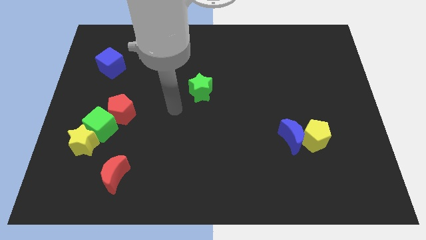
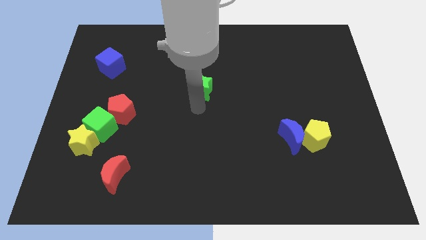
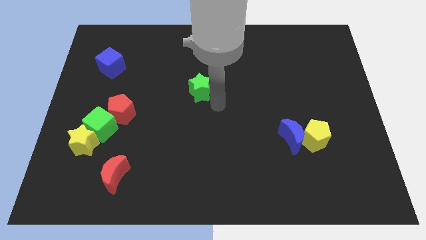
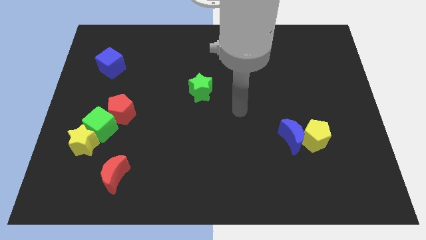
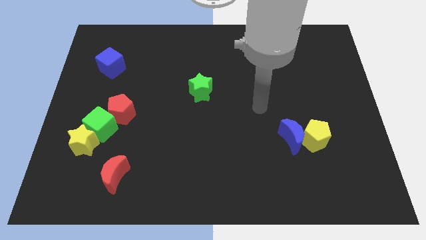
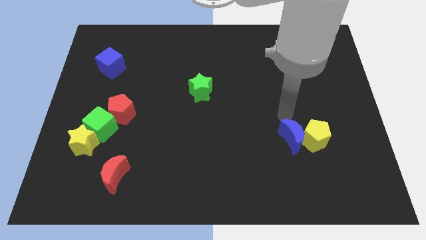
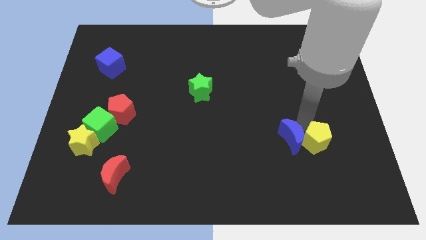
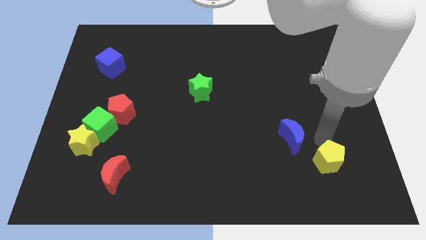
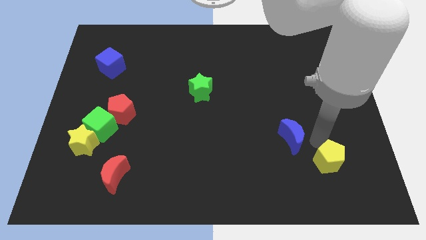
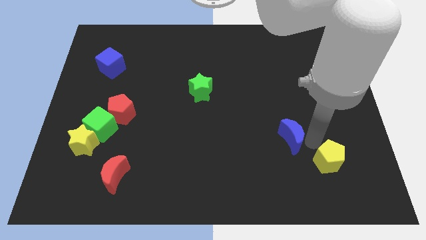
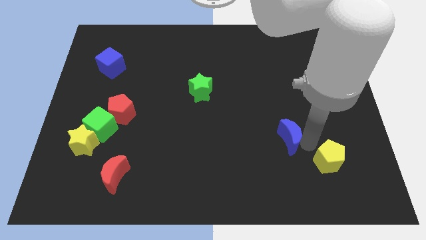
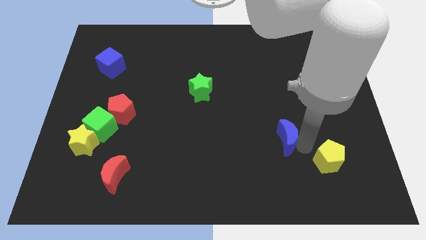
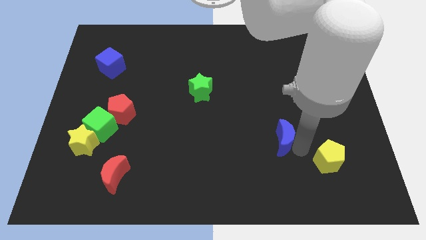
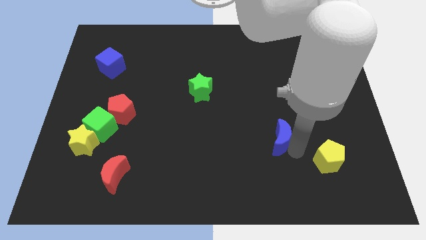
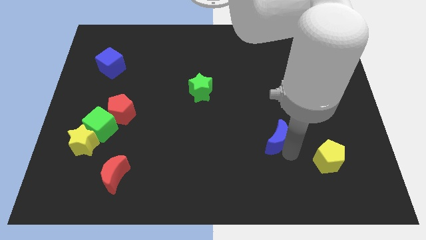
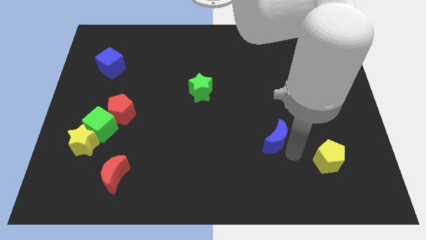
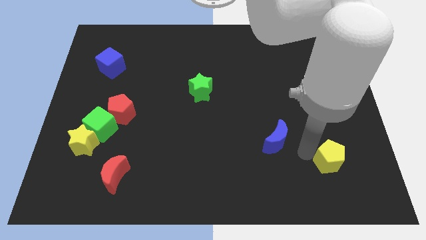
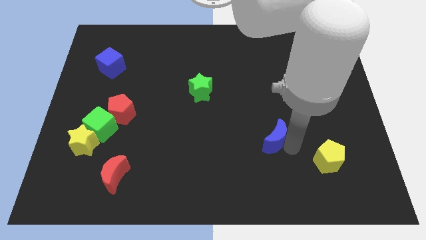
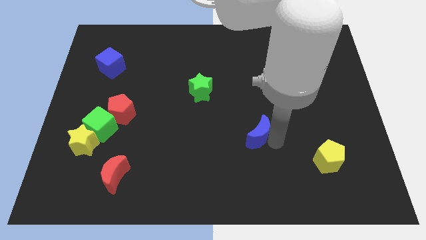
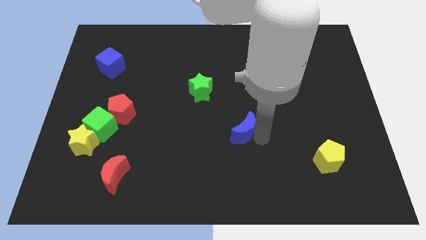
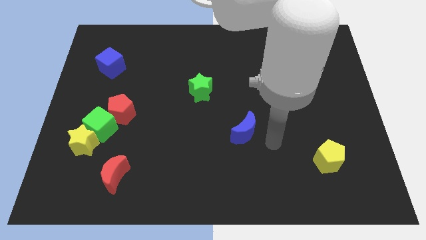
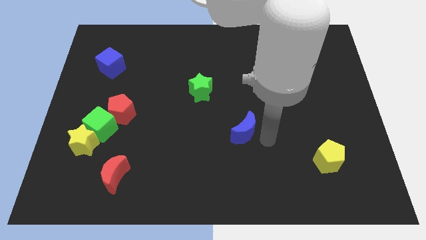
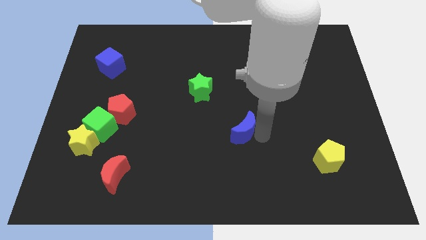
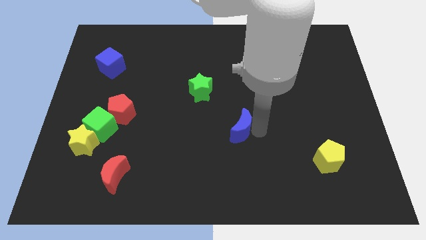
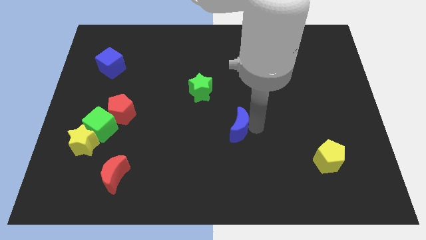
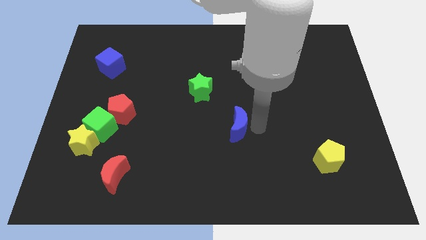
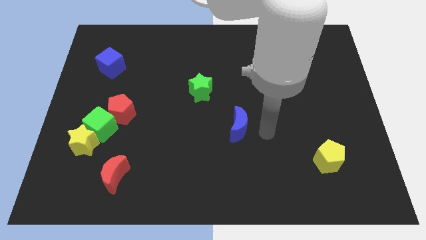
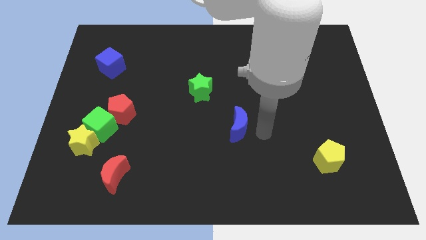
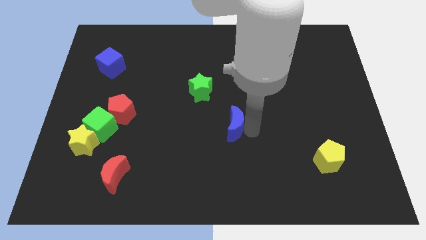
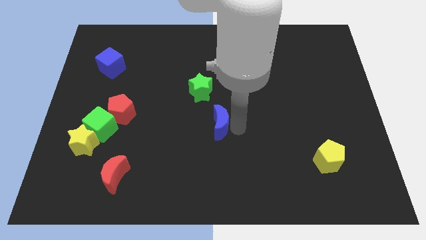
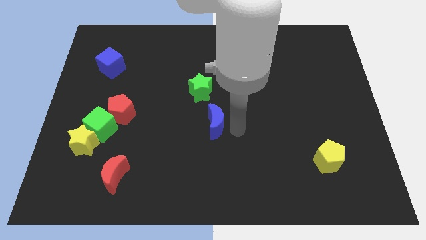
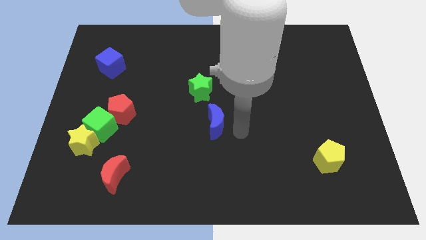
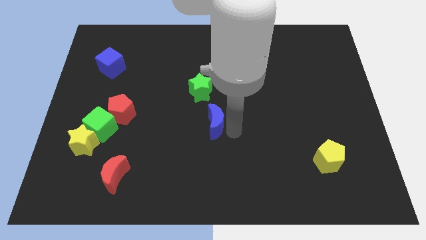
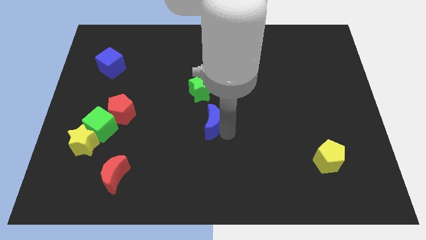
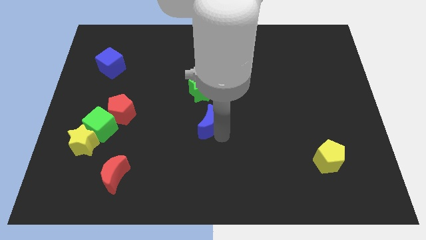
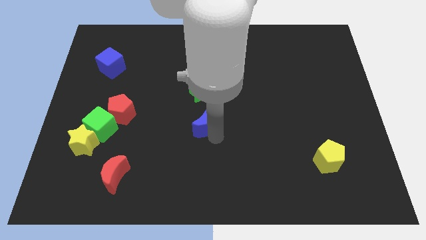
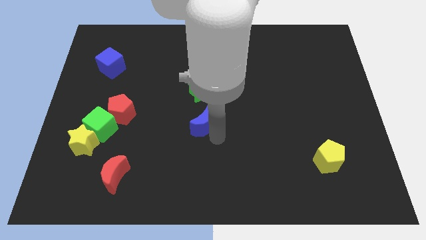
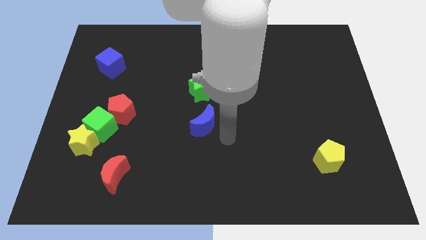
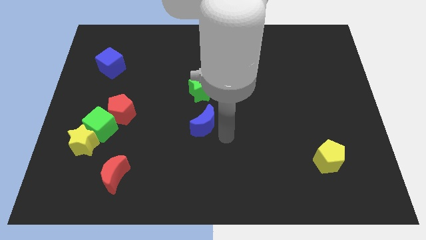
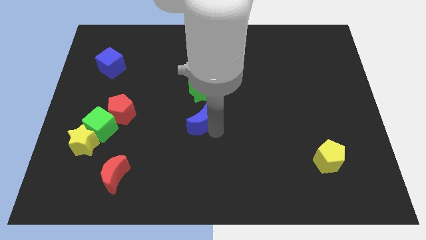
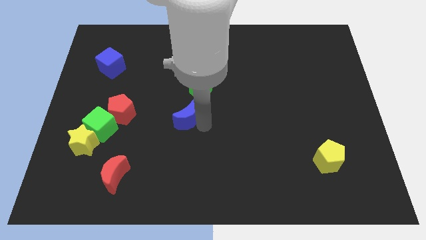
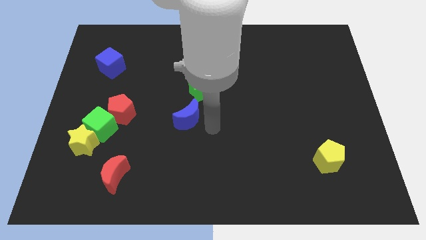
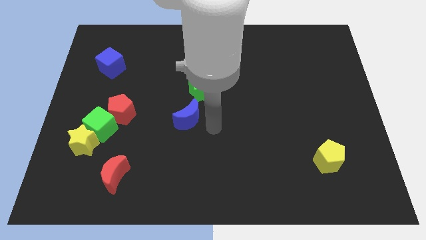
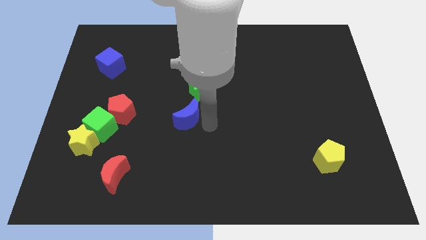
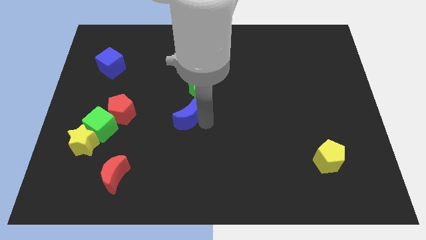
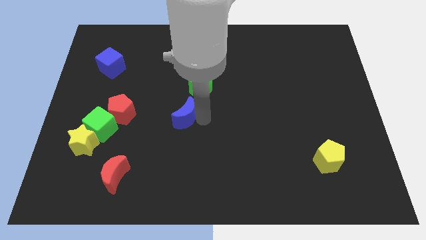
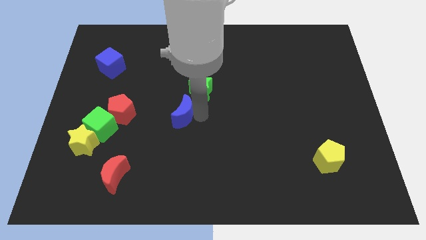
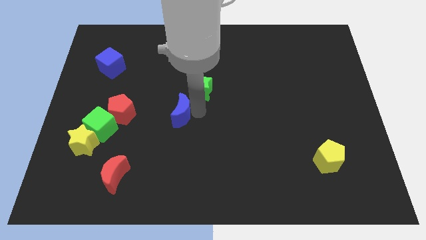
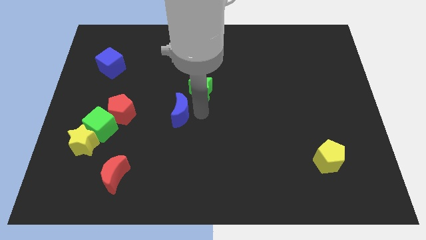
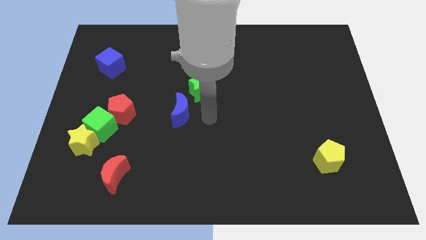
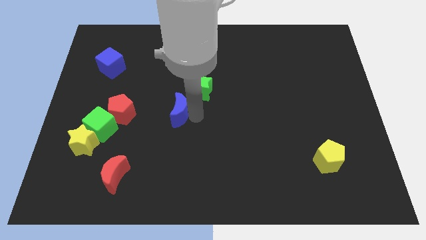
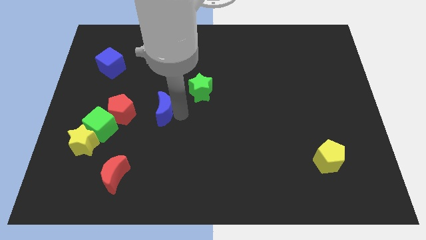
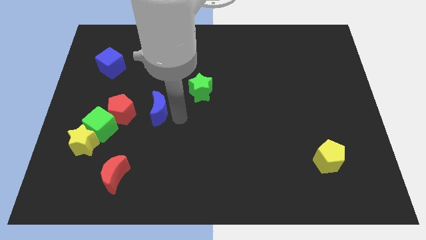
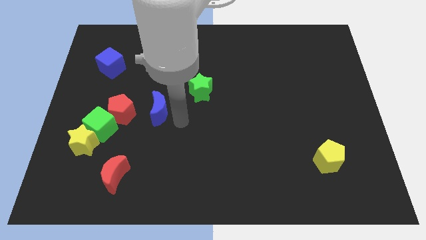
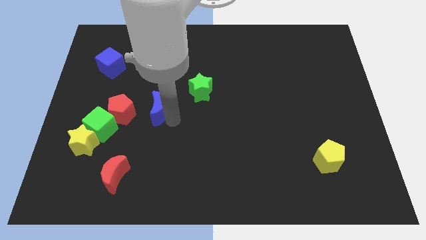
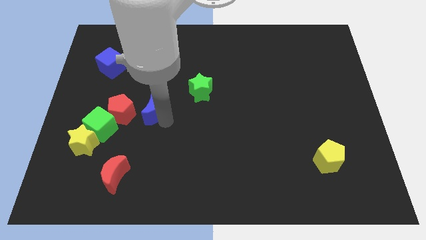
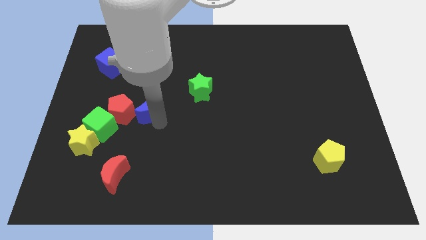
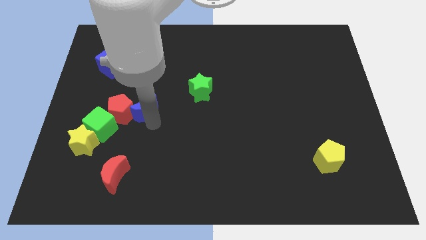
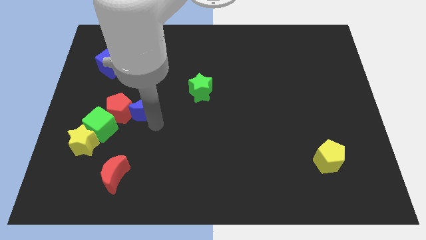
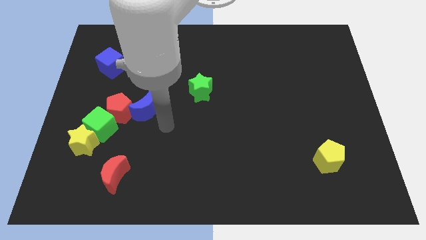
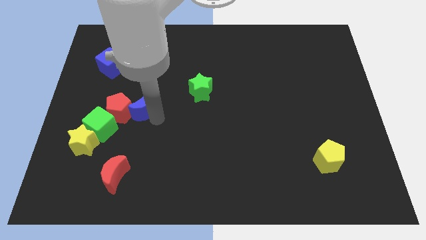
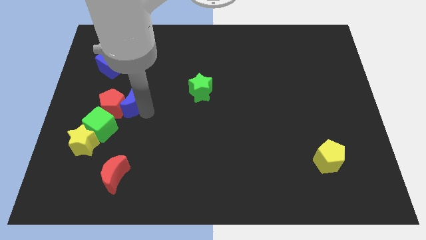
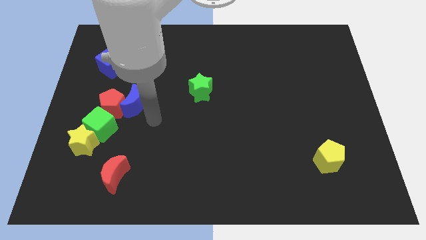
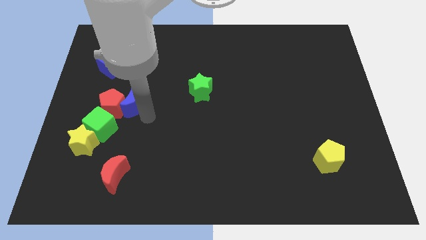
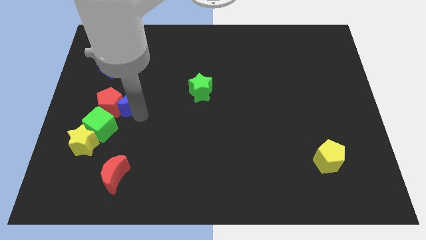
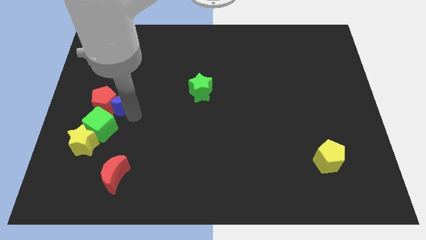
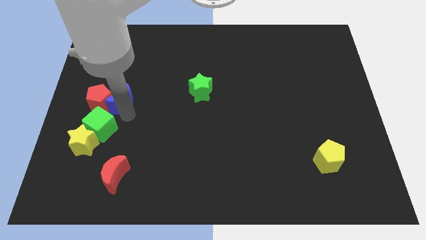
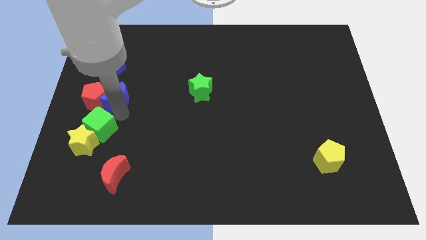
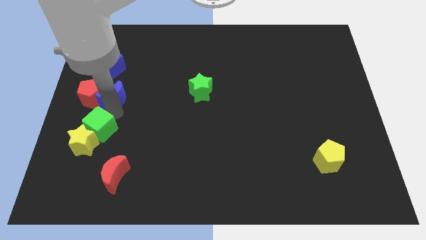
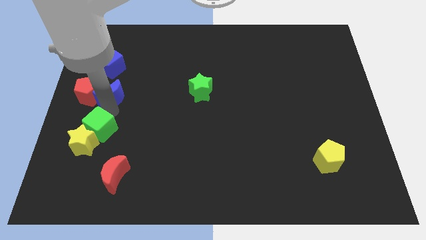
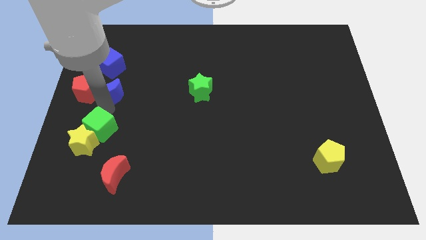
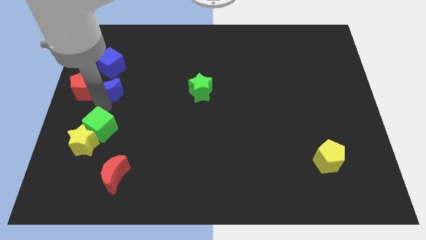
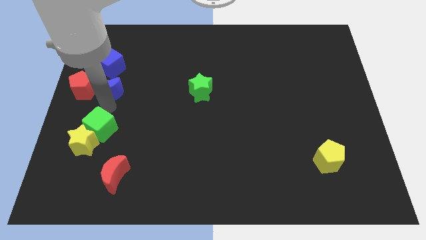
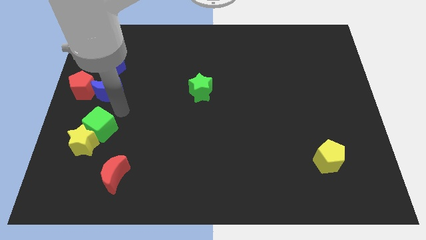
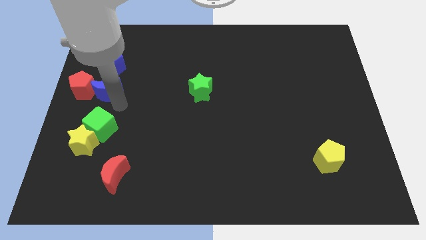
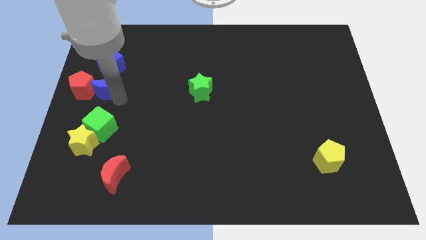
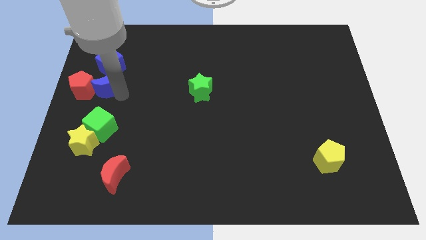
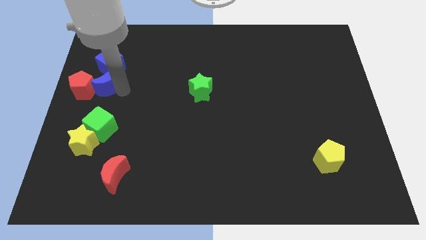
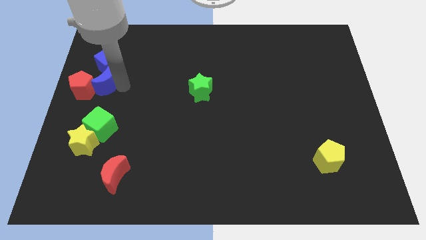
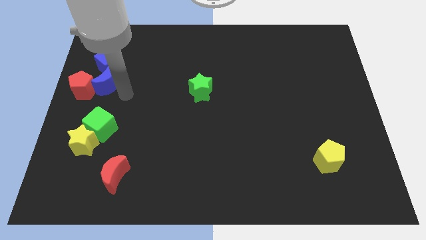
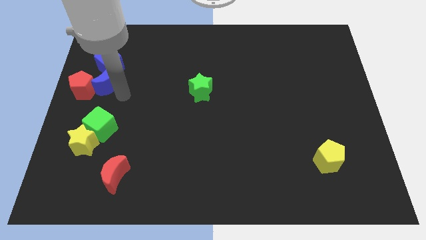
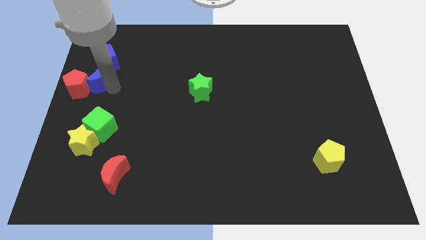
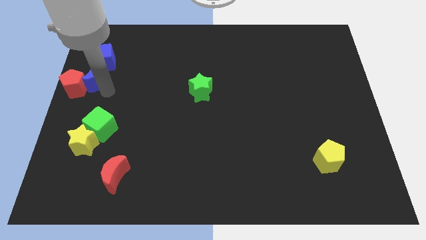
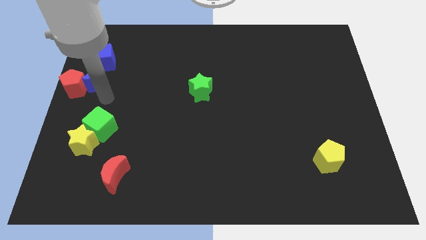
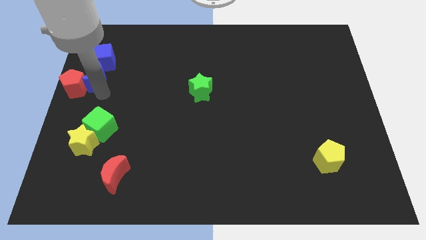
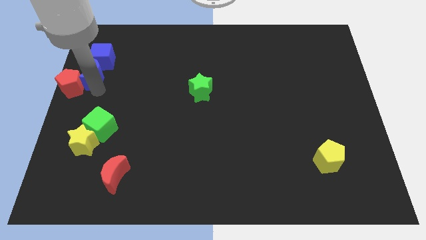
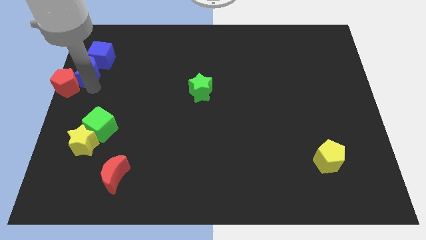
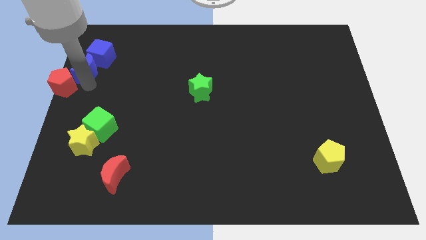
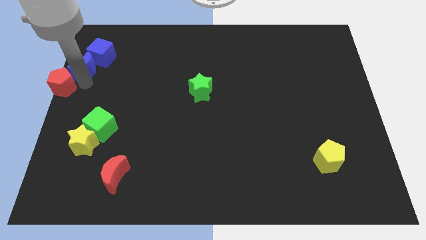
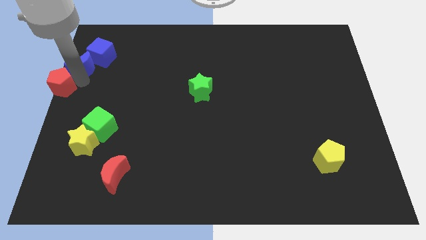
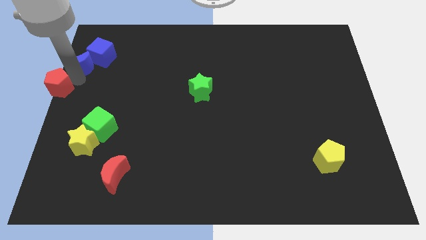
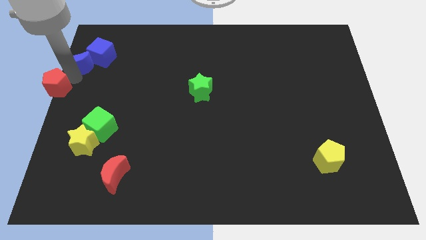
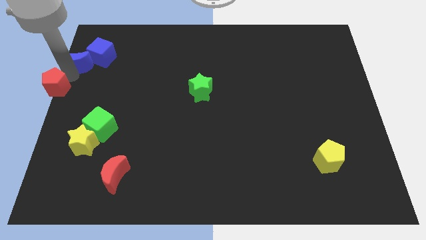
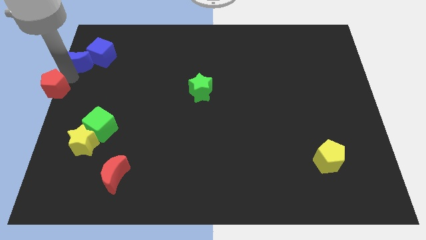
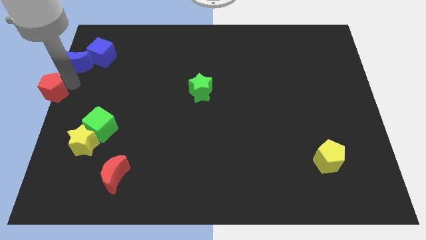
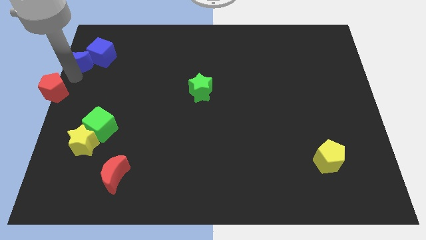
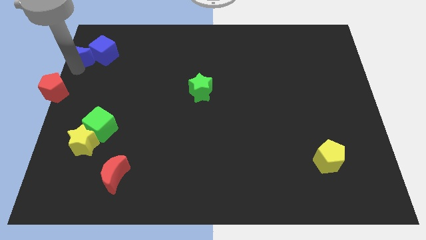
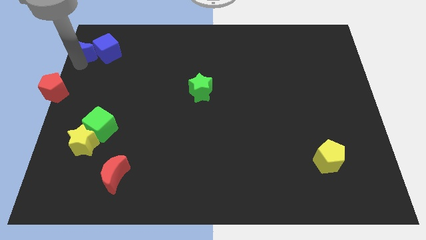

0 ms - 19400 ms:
push the blue moon to the top left corner
